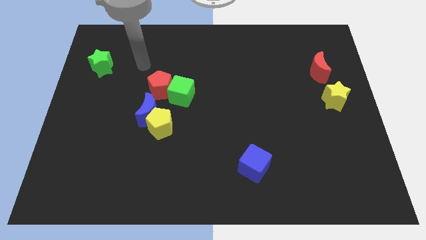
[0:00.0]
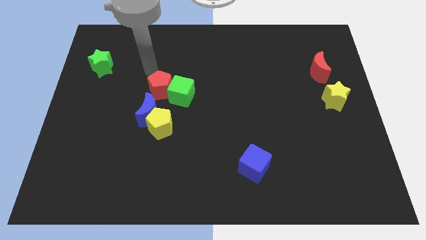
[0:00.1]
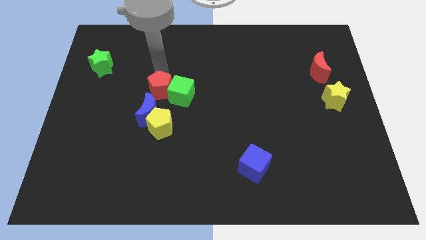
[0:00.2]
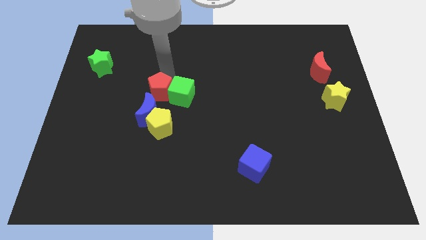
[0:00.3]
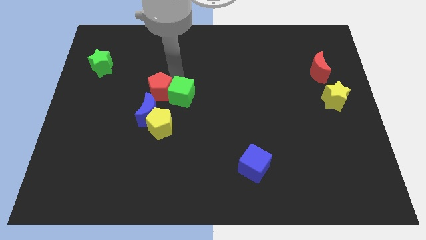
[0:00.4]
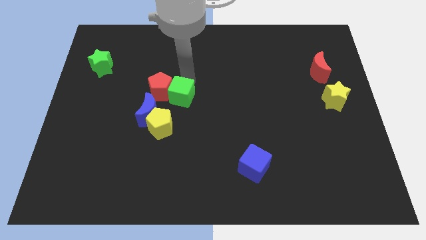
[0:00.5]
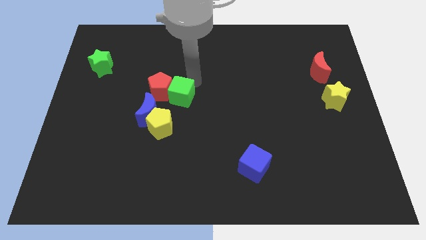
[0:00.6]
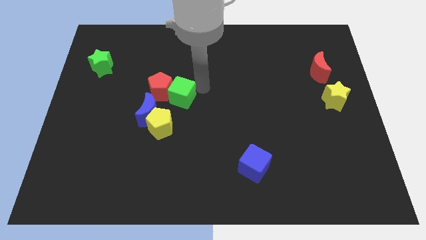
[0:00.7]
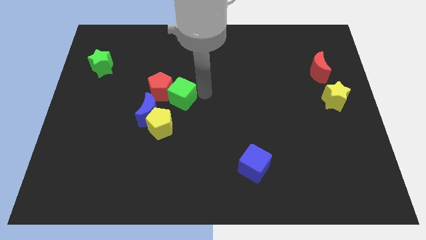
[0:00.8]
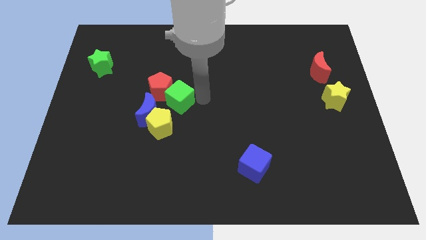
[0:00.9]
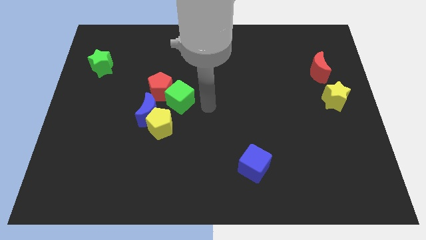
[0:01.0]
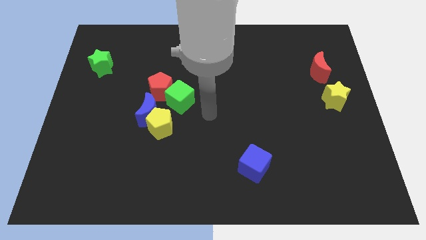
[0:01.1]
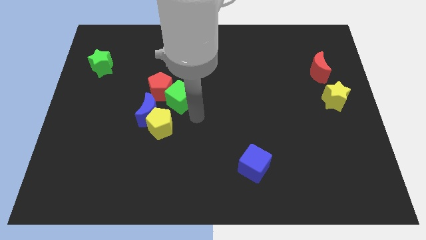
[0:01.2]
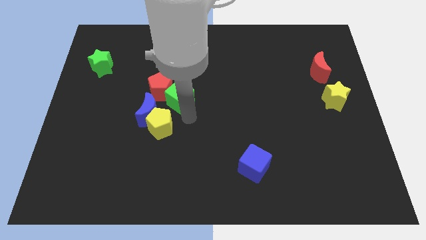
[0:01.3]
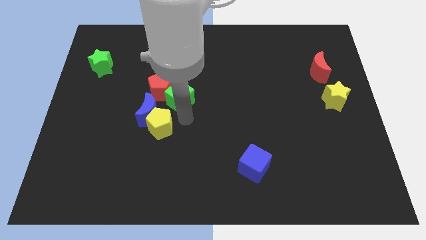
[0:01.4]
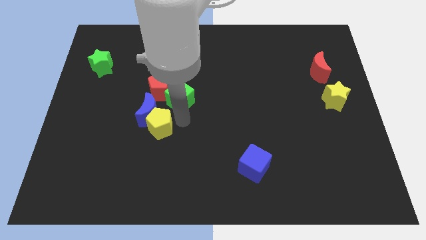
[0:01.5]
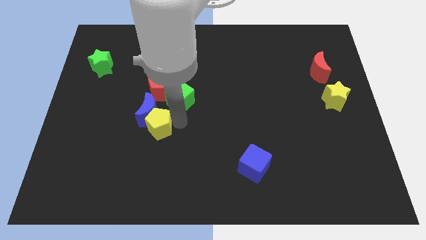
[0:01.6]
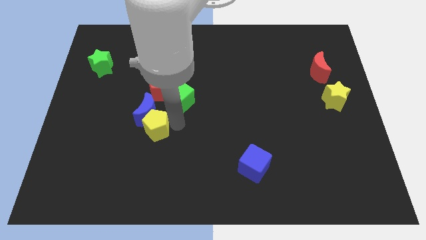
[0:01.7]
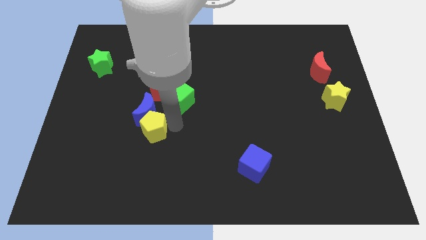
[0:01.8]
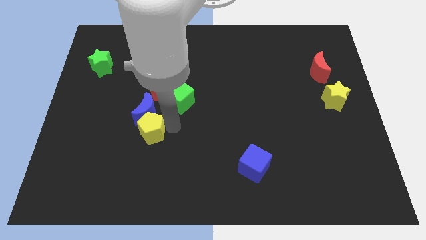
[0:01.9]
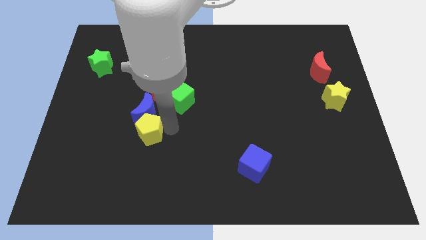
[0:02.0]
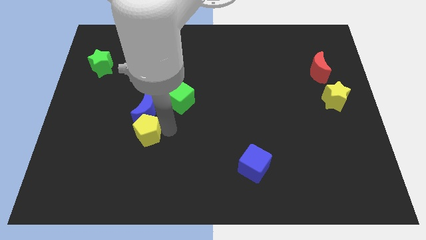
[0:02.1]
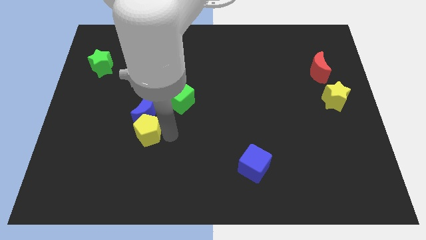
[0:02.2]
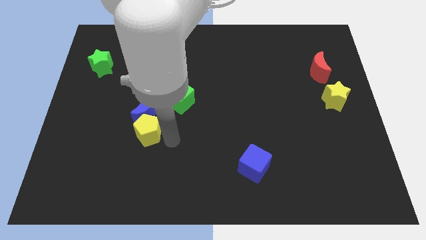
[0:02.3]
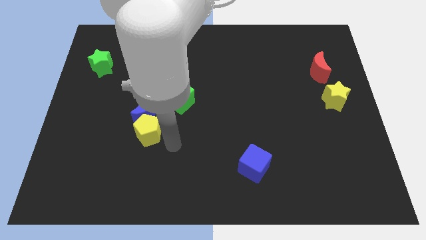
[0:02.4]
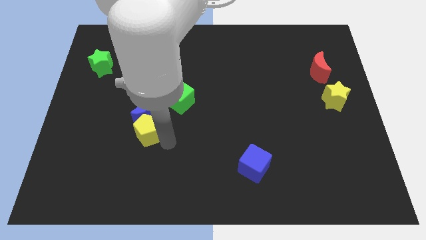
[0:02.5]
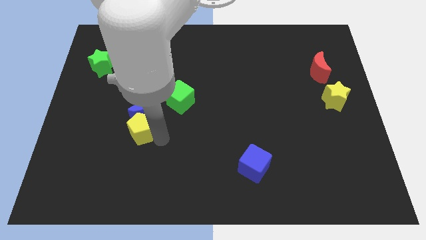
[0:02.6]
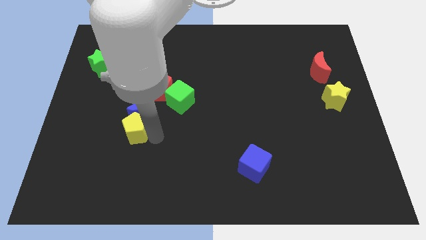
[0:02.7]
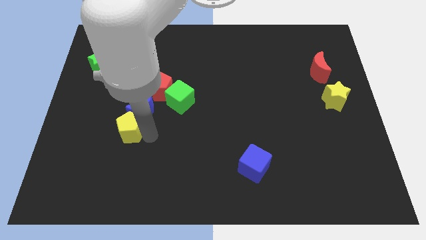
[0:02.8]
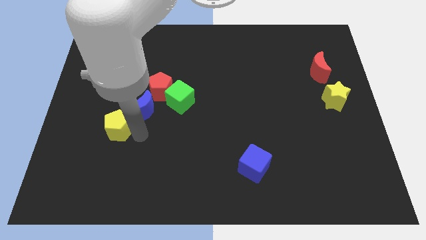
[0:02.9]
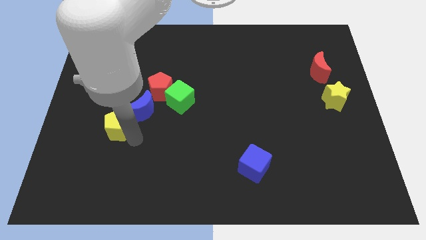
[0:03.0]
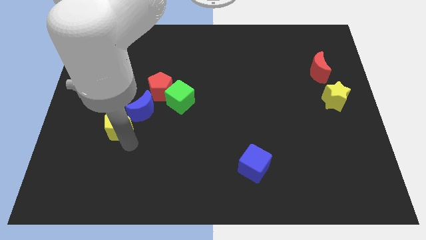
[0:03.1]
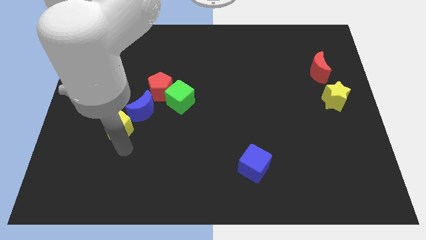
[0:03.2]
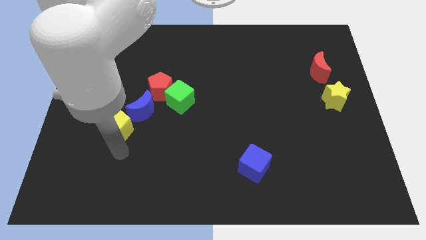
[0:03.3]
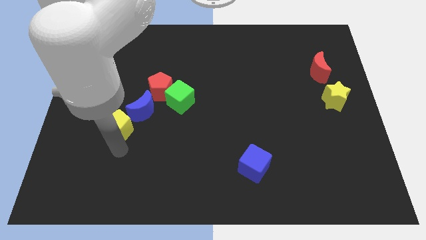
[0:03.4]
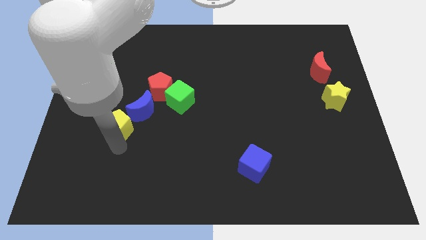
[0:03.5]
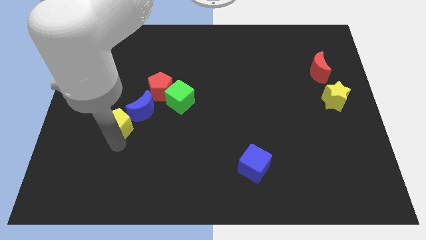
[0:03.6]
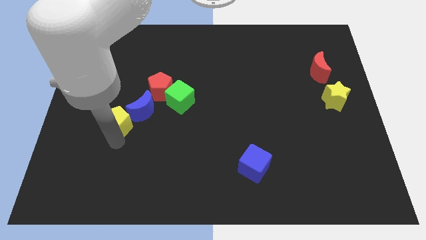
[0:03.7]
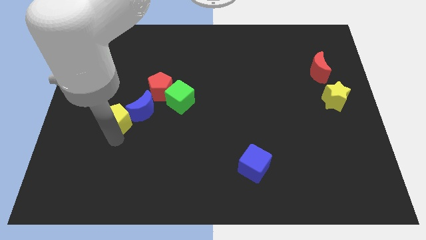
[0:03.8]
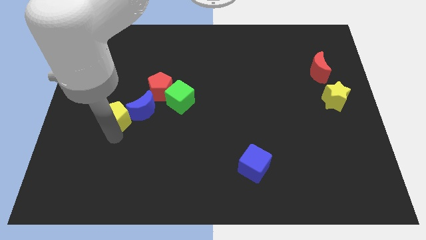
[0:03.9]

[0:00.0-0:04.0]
slide the yellow pentagon up and to the left diagonally somewhat

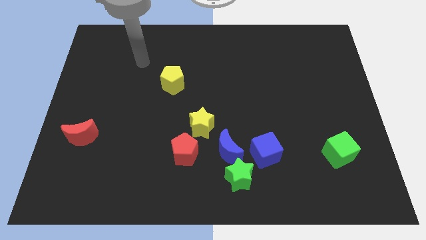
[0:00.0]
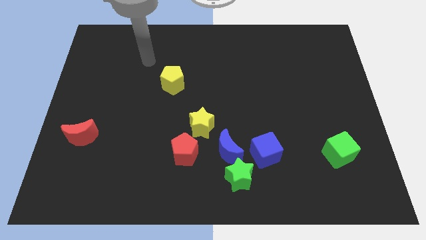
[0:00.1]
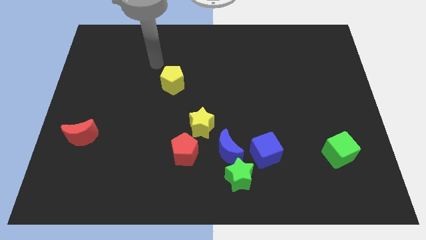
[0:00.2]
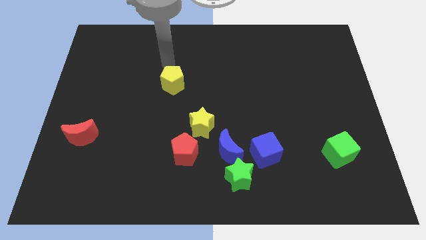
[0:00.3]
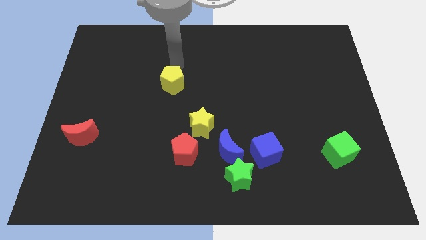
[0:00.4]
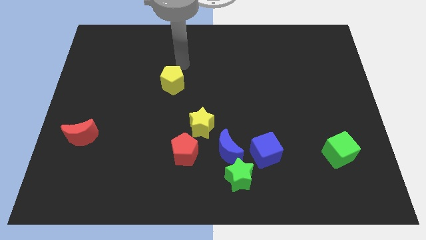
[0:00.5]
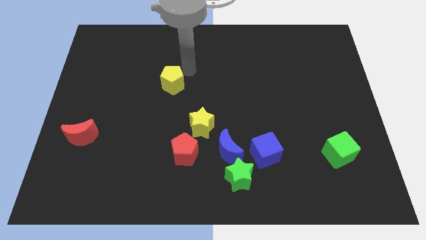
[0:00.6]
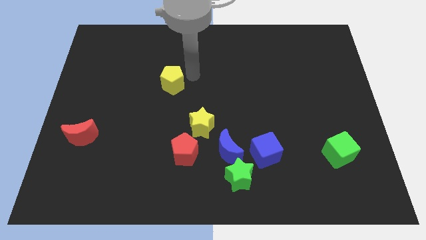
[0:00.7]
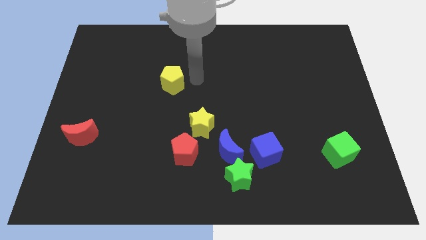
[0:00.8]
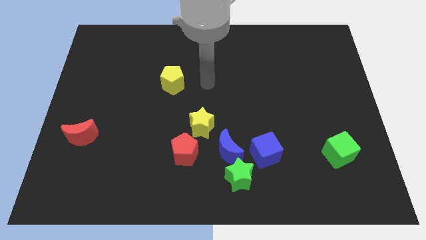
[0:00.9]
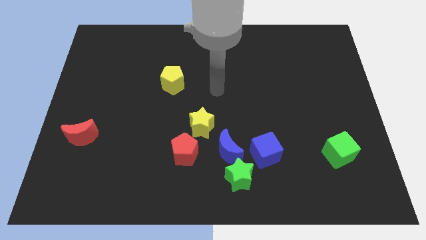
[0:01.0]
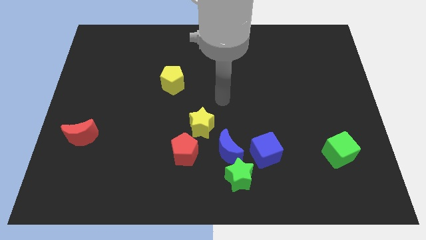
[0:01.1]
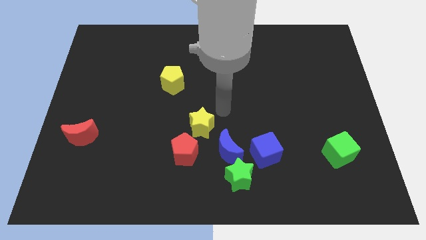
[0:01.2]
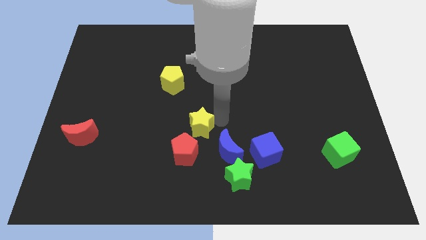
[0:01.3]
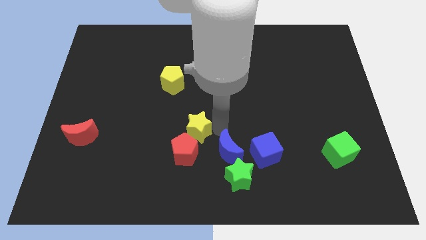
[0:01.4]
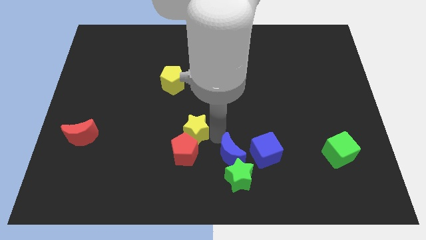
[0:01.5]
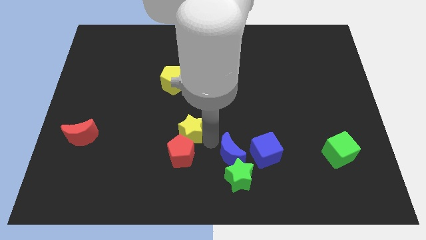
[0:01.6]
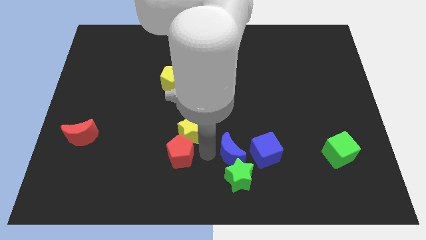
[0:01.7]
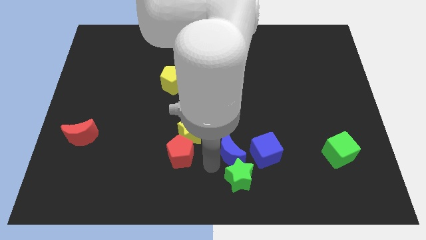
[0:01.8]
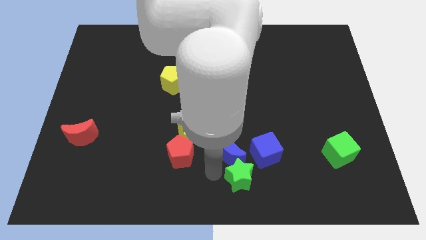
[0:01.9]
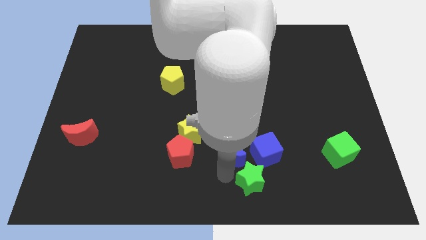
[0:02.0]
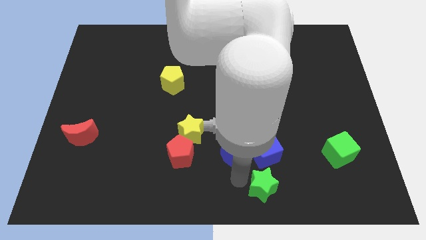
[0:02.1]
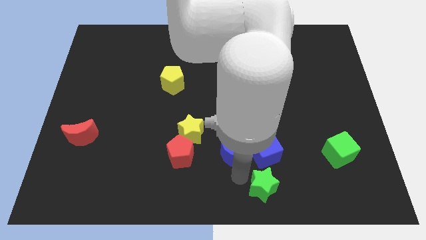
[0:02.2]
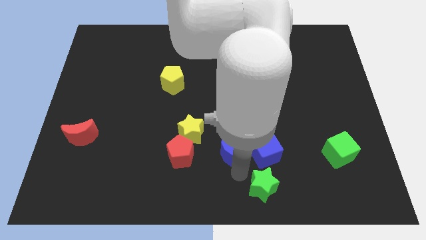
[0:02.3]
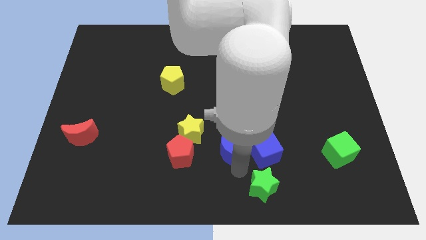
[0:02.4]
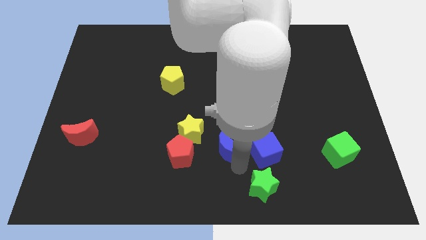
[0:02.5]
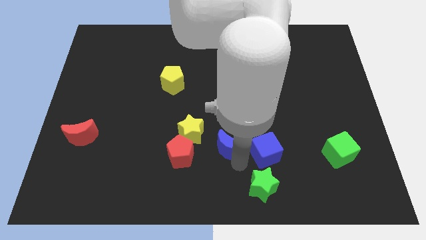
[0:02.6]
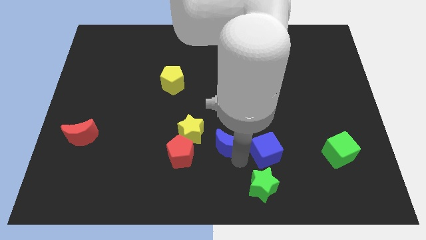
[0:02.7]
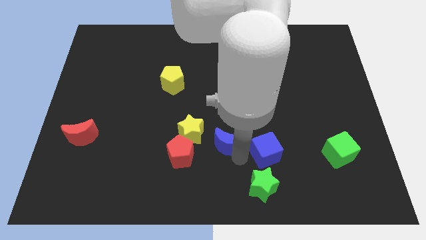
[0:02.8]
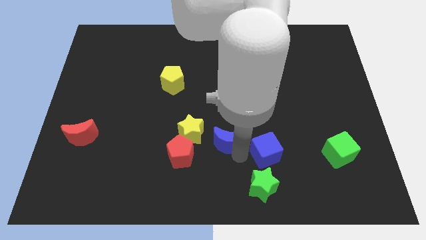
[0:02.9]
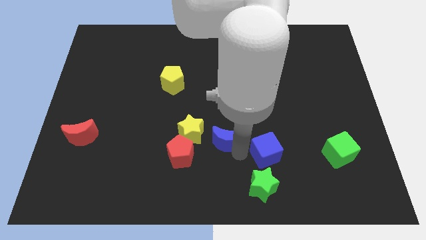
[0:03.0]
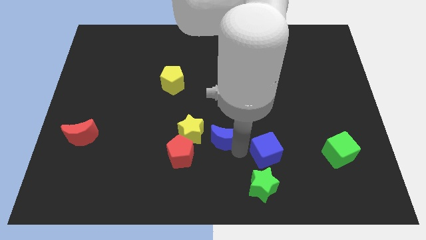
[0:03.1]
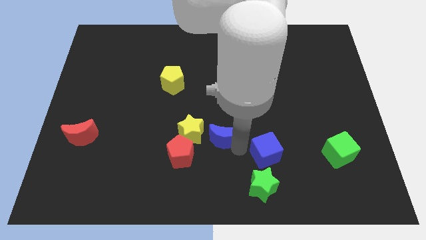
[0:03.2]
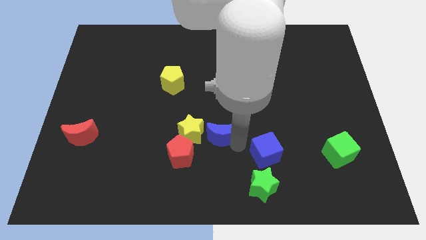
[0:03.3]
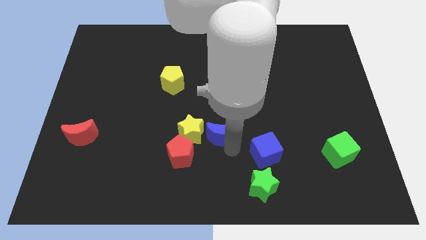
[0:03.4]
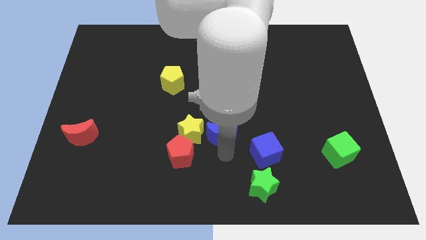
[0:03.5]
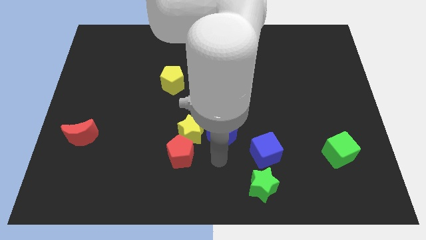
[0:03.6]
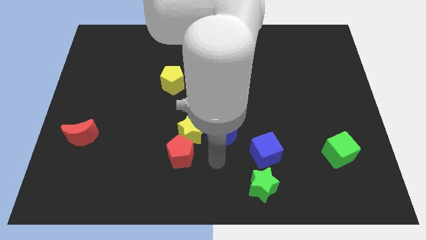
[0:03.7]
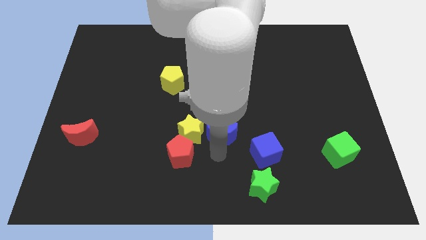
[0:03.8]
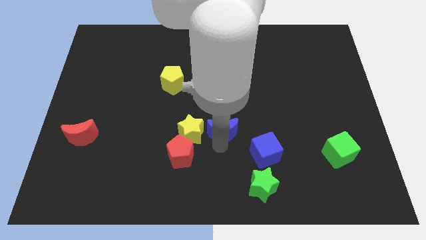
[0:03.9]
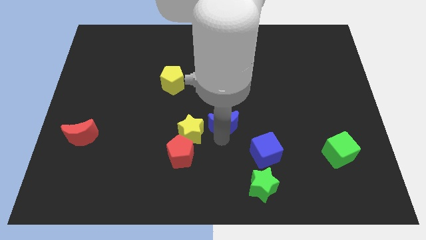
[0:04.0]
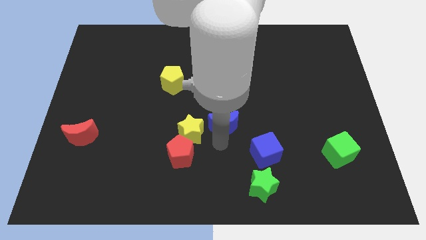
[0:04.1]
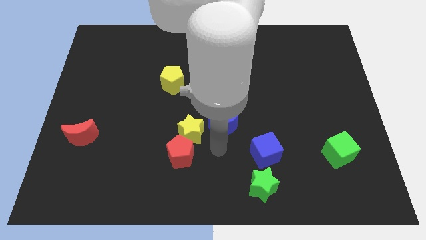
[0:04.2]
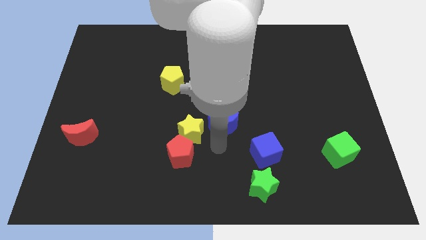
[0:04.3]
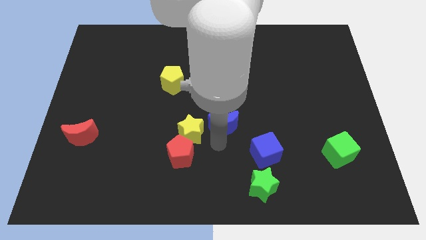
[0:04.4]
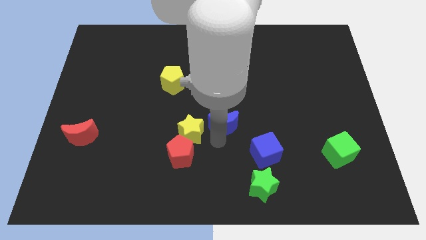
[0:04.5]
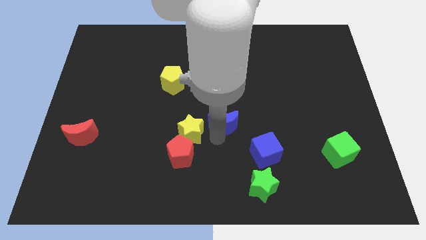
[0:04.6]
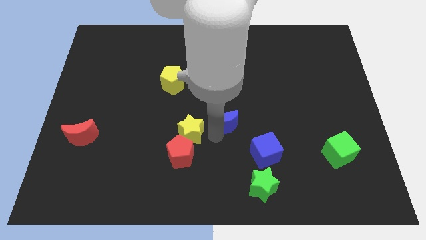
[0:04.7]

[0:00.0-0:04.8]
push the blue moon up slightly
